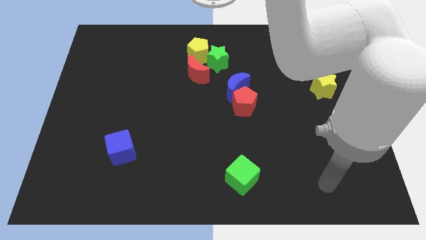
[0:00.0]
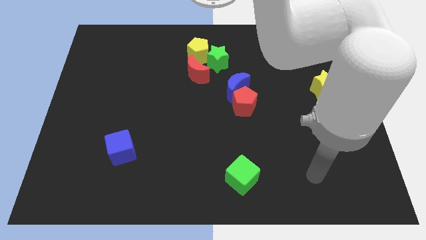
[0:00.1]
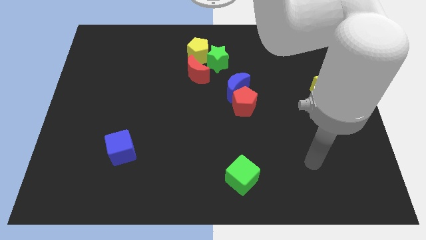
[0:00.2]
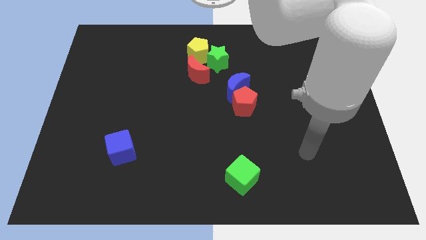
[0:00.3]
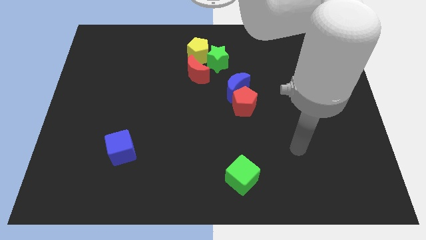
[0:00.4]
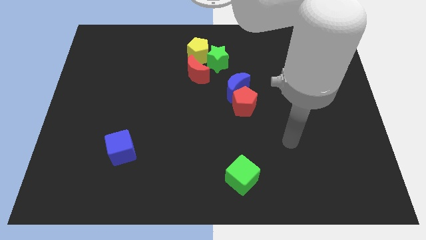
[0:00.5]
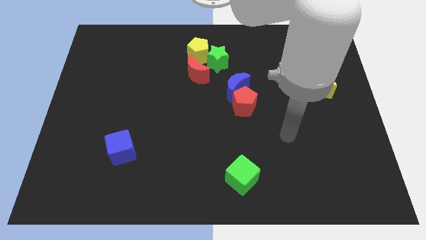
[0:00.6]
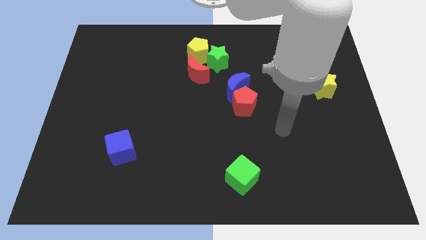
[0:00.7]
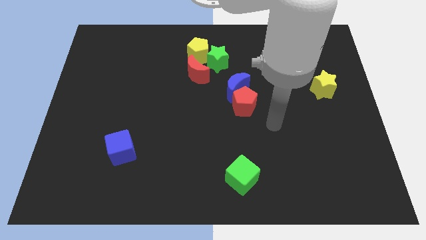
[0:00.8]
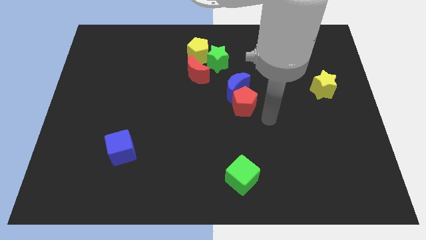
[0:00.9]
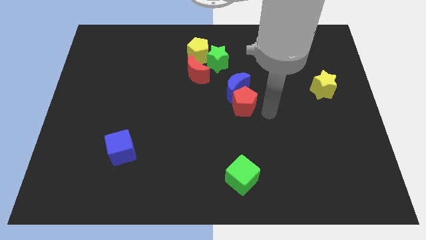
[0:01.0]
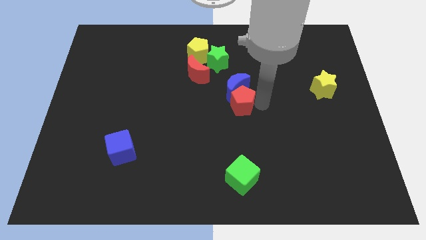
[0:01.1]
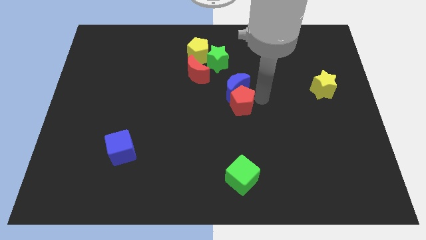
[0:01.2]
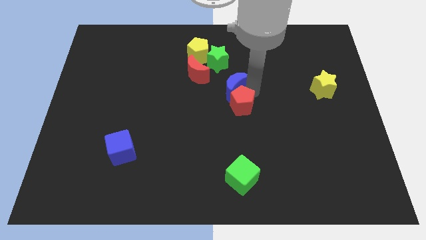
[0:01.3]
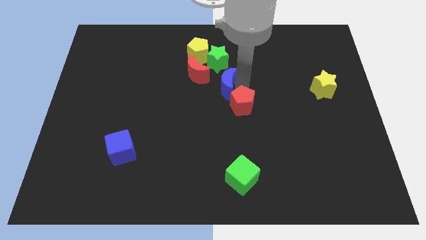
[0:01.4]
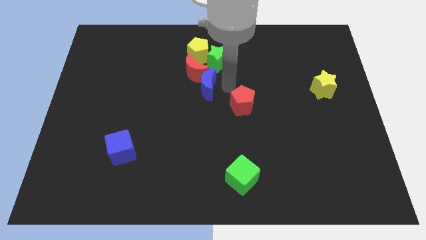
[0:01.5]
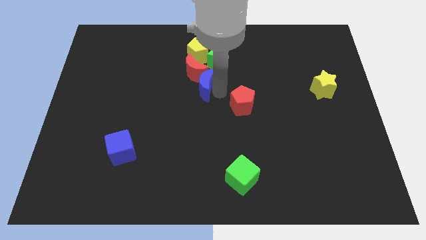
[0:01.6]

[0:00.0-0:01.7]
pull the red pentagon apart from the blue moon

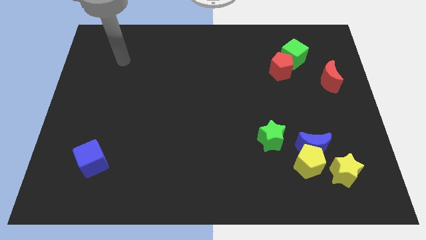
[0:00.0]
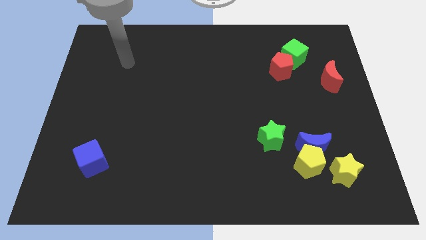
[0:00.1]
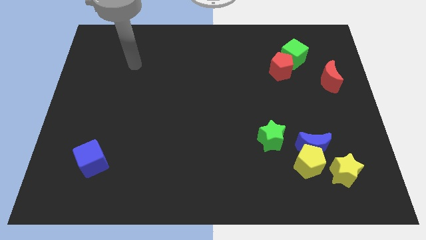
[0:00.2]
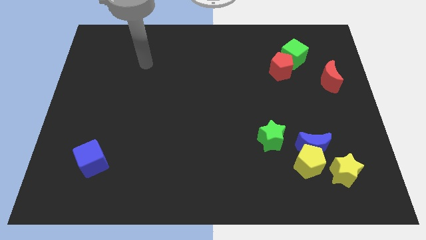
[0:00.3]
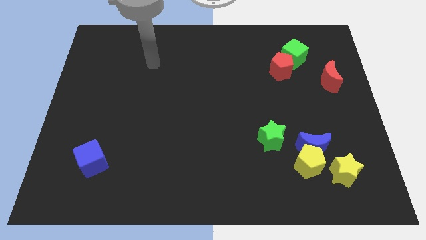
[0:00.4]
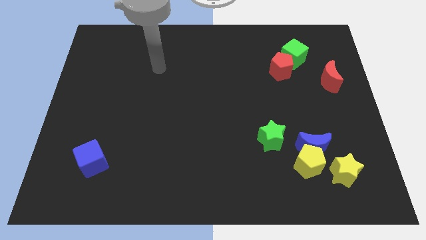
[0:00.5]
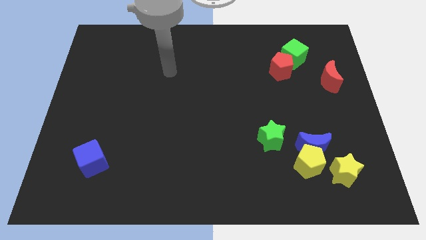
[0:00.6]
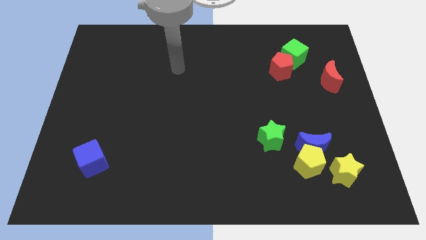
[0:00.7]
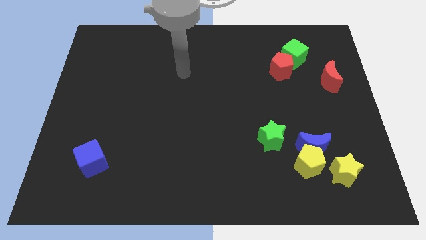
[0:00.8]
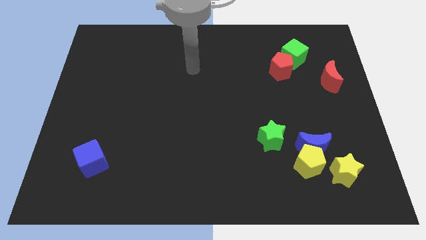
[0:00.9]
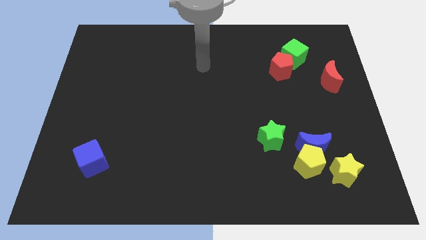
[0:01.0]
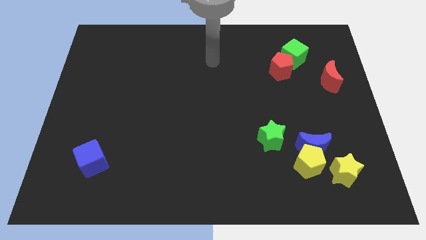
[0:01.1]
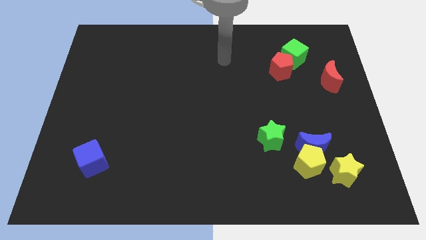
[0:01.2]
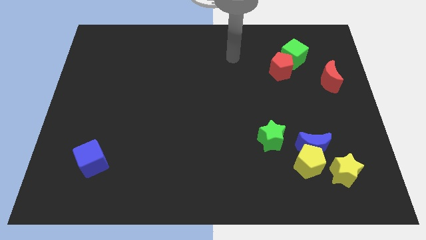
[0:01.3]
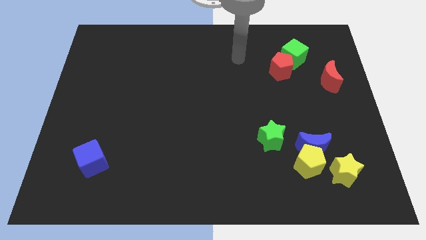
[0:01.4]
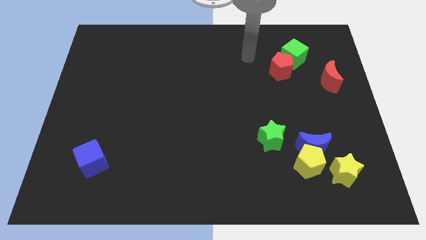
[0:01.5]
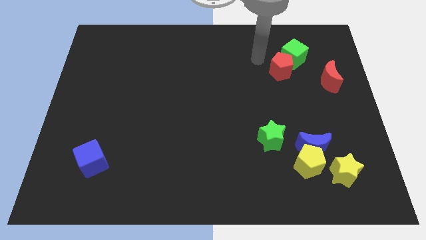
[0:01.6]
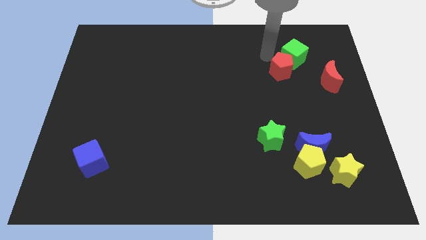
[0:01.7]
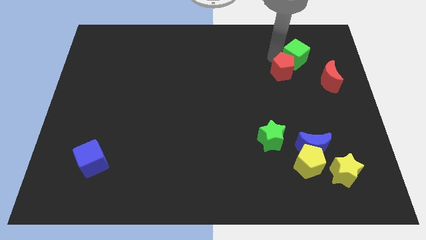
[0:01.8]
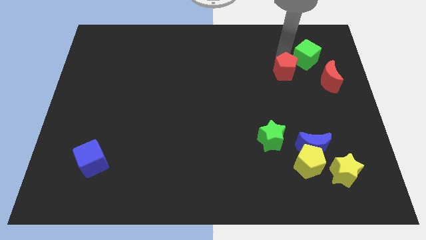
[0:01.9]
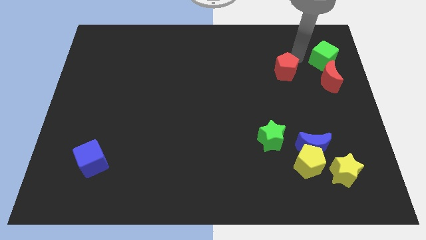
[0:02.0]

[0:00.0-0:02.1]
pull the red pentagon apart from the green cube

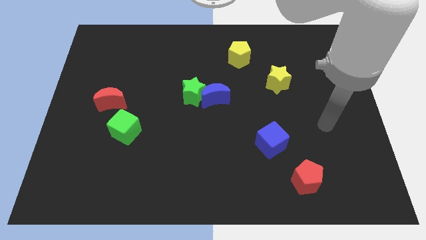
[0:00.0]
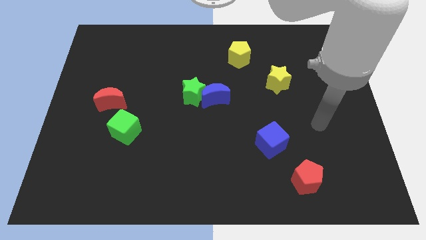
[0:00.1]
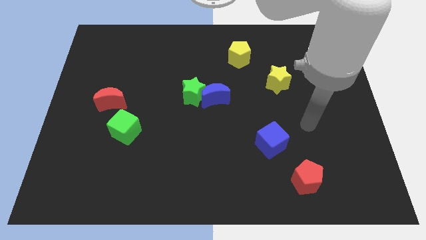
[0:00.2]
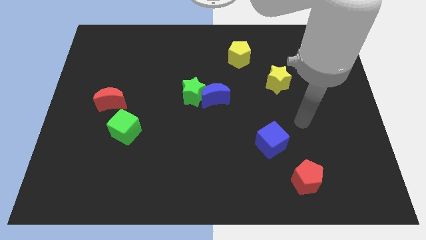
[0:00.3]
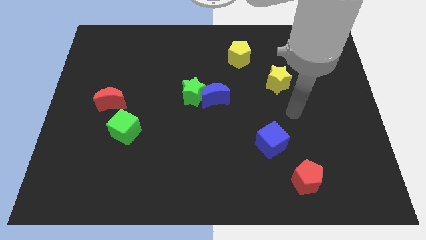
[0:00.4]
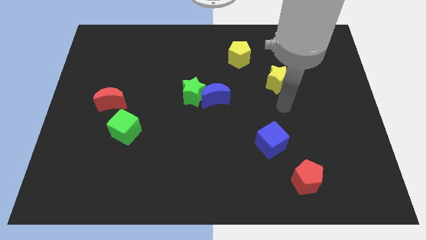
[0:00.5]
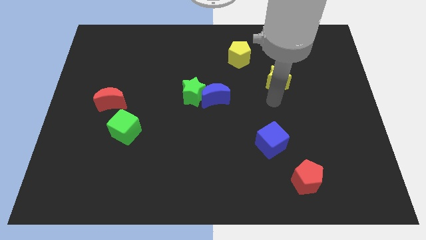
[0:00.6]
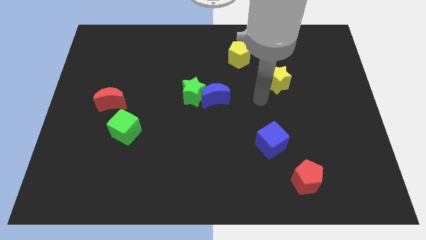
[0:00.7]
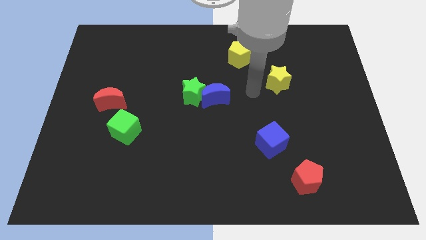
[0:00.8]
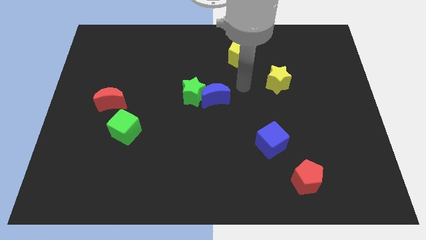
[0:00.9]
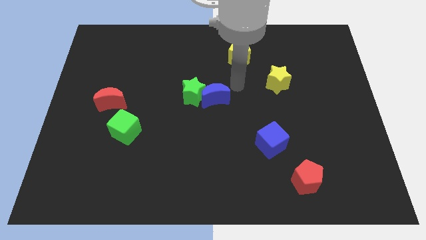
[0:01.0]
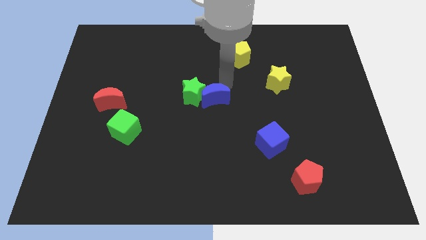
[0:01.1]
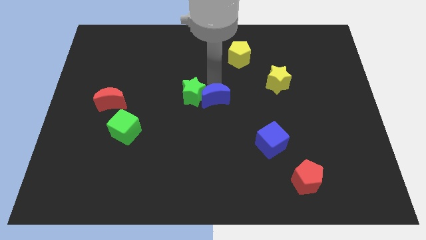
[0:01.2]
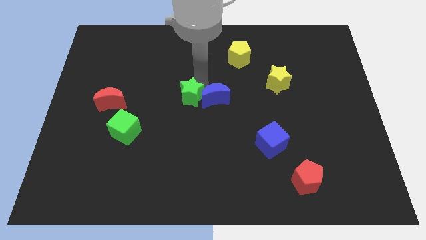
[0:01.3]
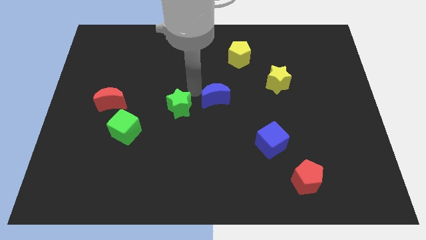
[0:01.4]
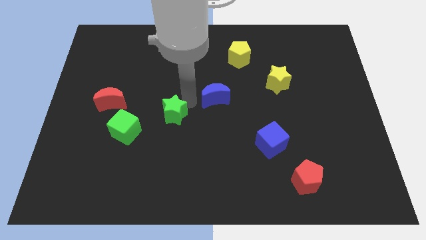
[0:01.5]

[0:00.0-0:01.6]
pull the blue moon apart from the green star

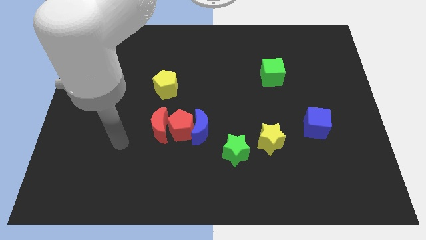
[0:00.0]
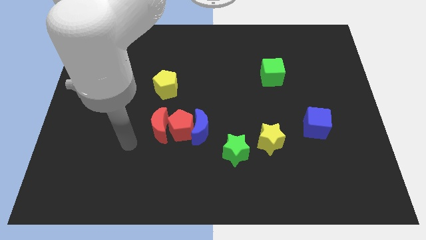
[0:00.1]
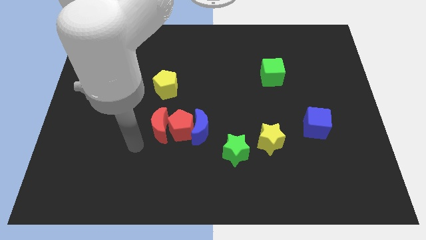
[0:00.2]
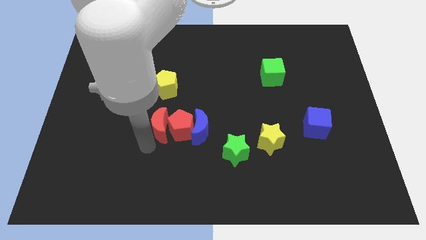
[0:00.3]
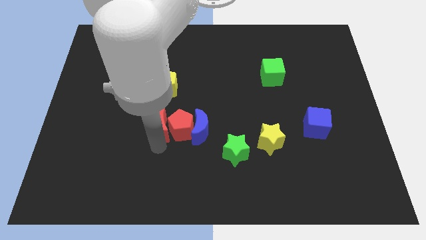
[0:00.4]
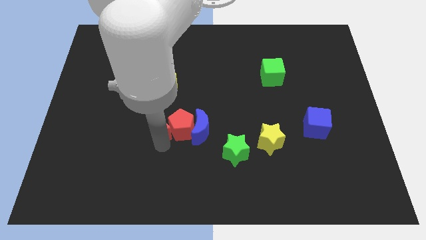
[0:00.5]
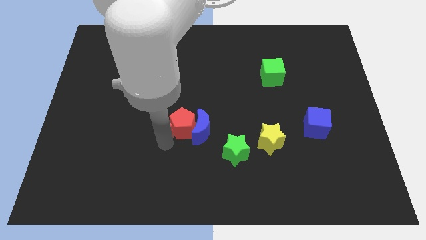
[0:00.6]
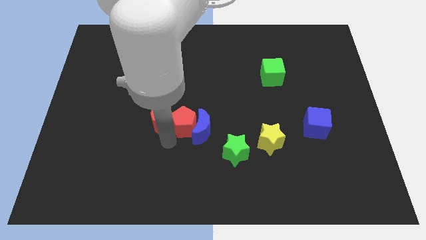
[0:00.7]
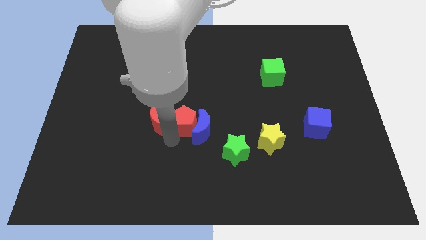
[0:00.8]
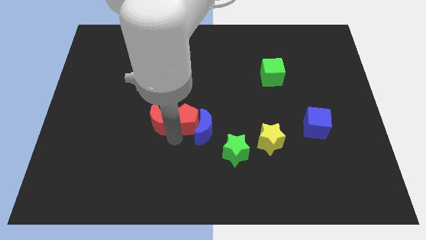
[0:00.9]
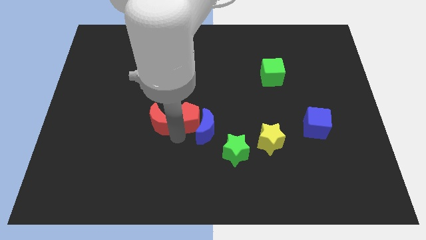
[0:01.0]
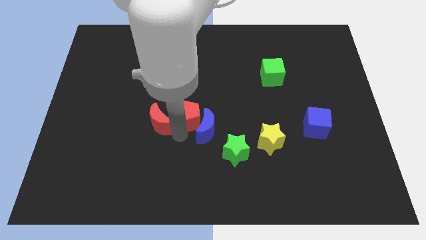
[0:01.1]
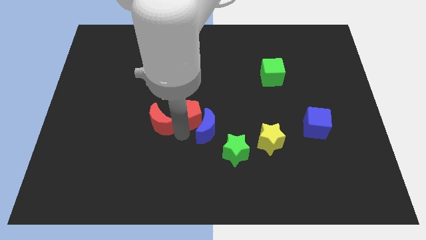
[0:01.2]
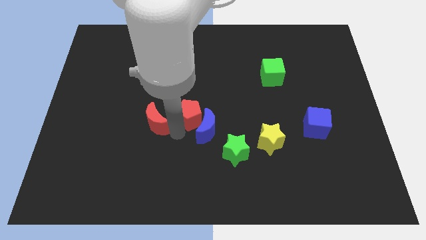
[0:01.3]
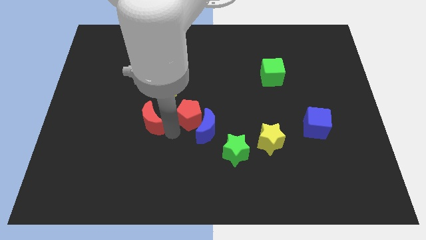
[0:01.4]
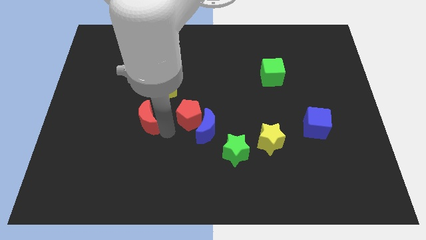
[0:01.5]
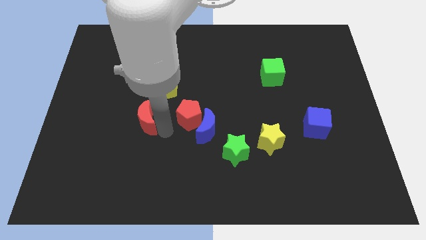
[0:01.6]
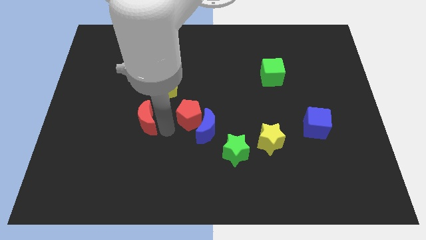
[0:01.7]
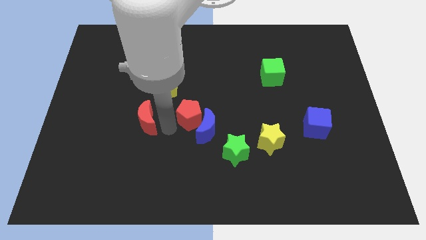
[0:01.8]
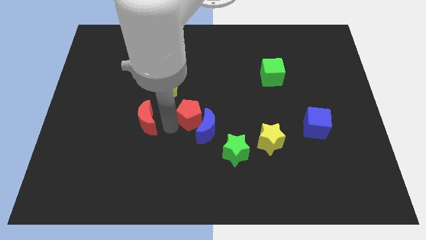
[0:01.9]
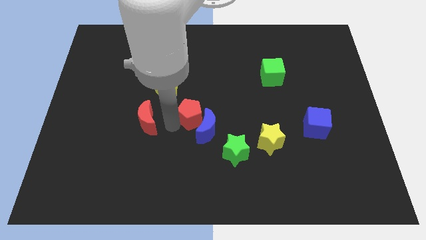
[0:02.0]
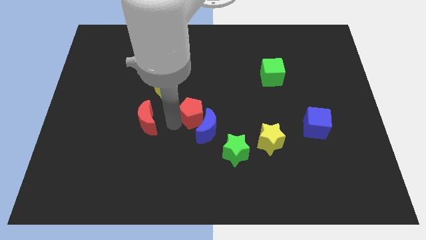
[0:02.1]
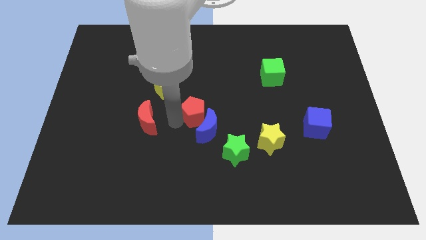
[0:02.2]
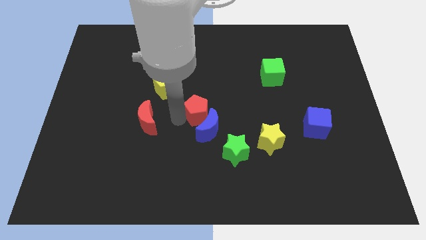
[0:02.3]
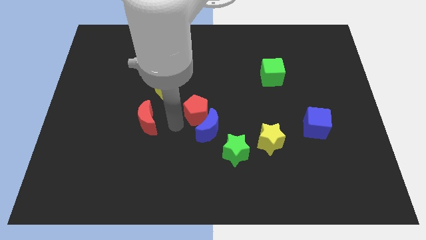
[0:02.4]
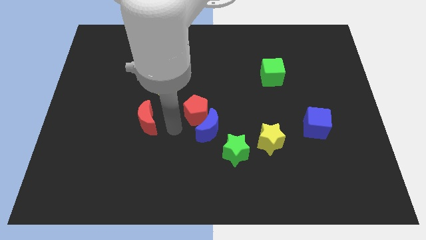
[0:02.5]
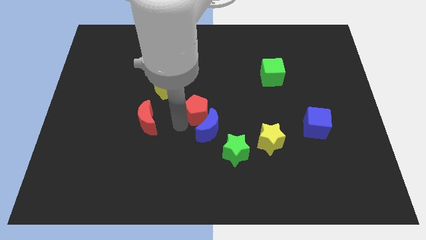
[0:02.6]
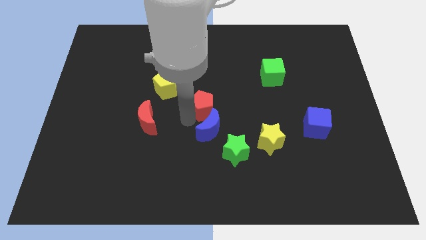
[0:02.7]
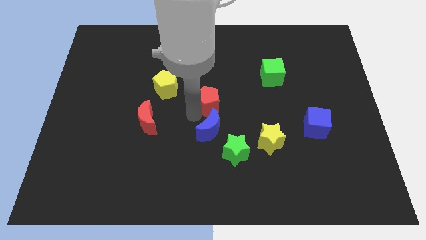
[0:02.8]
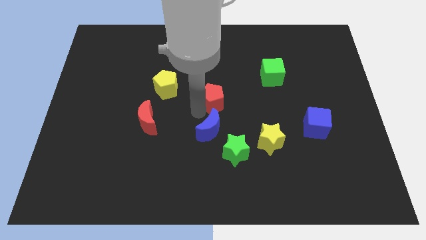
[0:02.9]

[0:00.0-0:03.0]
separate the red pentagon from the blue moon and red moon

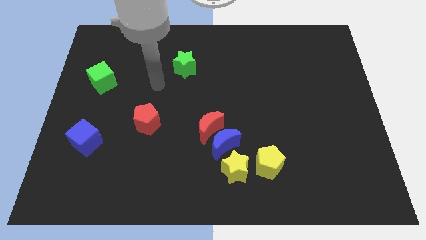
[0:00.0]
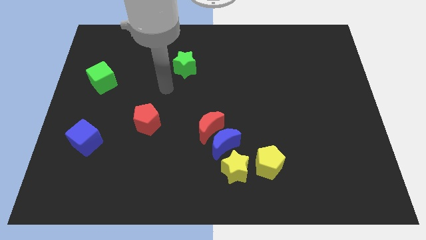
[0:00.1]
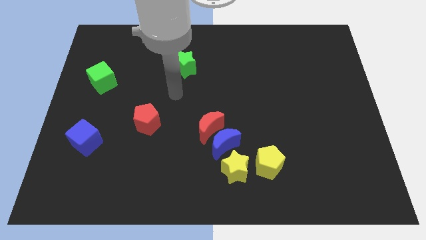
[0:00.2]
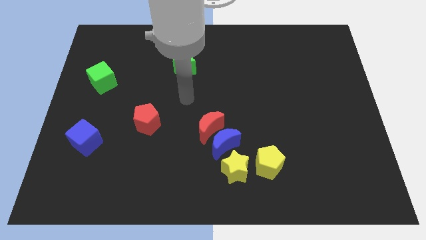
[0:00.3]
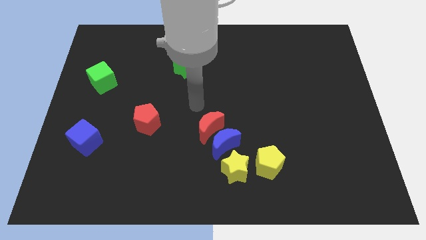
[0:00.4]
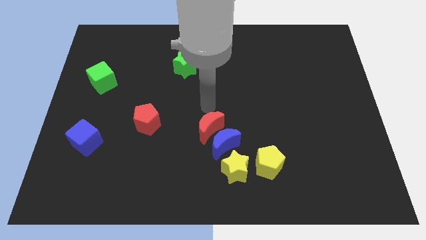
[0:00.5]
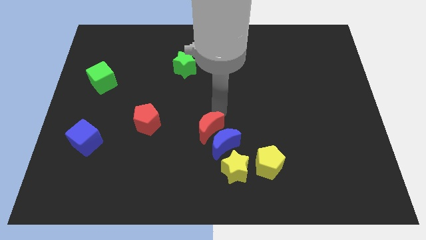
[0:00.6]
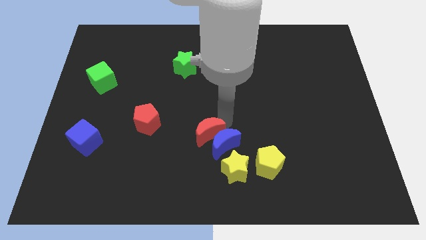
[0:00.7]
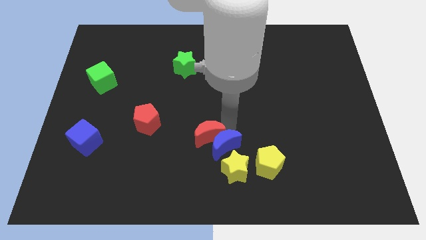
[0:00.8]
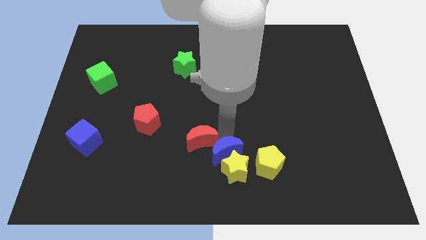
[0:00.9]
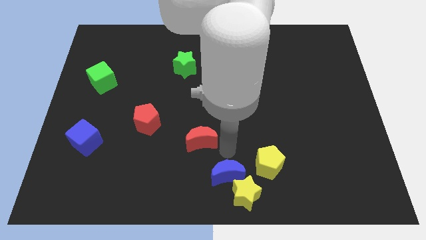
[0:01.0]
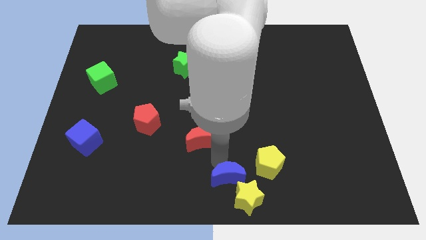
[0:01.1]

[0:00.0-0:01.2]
separate the red moon from the blue moon
